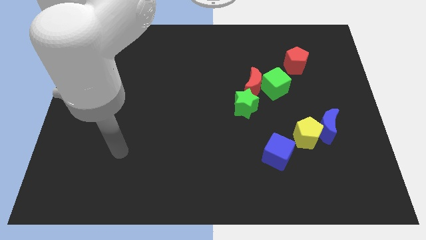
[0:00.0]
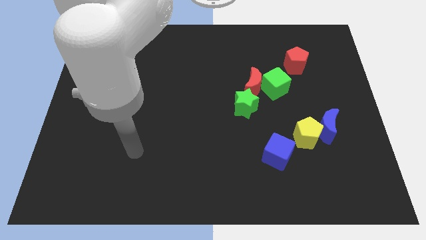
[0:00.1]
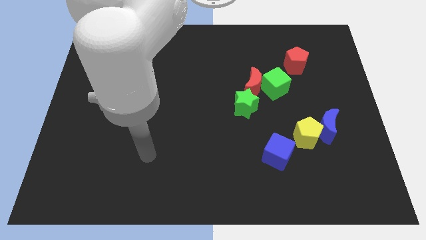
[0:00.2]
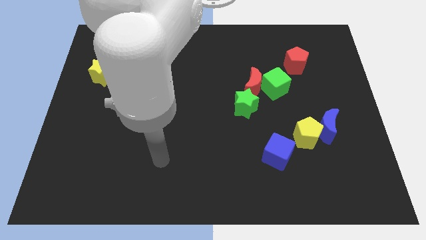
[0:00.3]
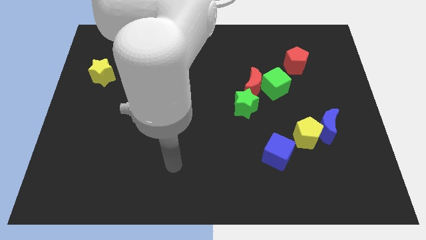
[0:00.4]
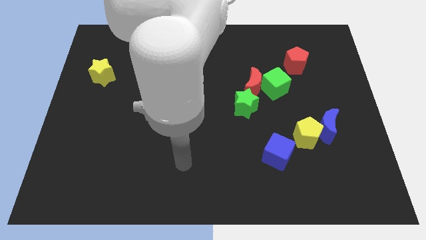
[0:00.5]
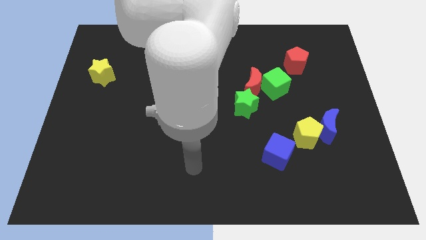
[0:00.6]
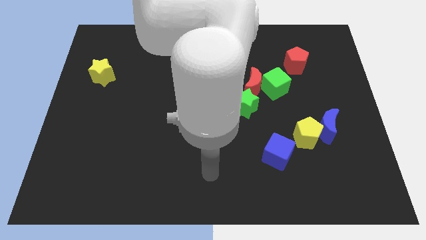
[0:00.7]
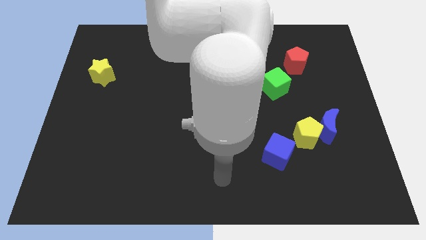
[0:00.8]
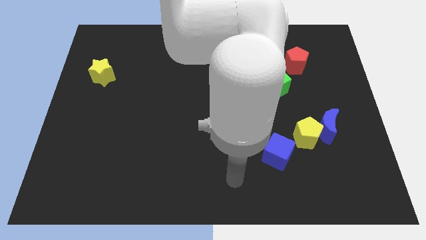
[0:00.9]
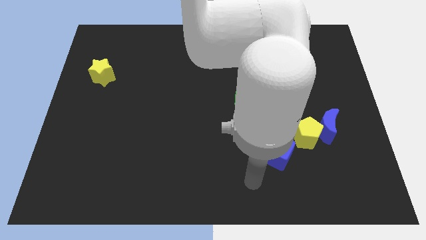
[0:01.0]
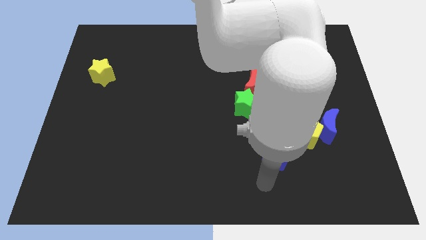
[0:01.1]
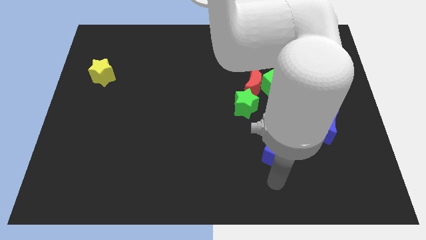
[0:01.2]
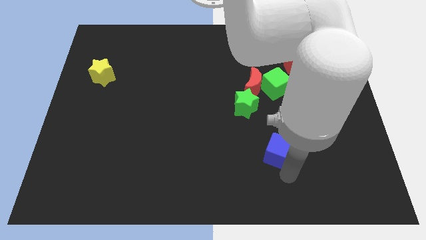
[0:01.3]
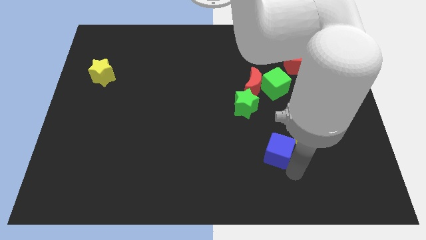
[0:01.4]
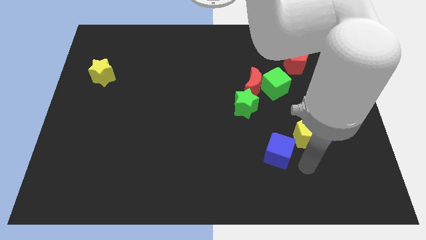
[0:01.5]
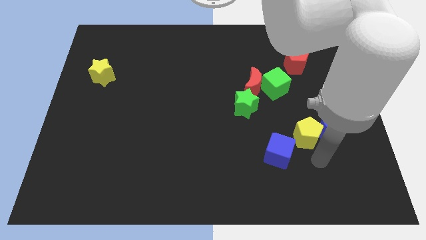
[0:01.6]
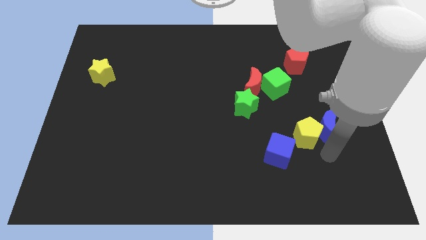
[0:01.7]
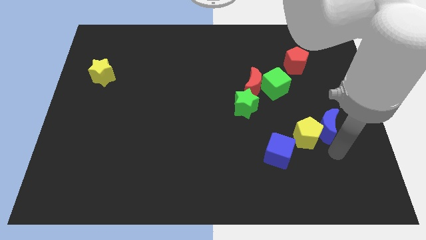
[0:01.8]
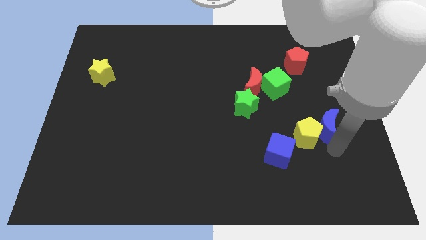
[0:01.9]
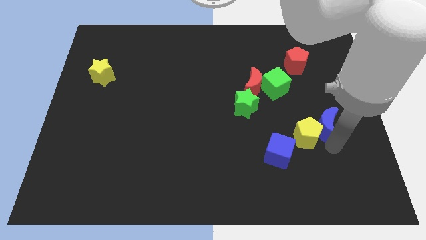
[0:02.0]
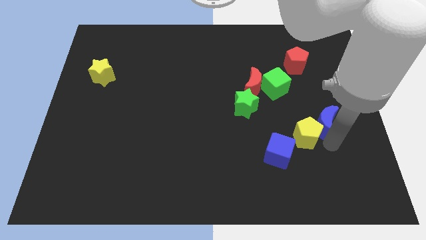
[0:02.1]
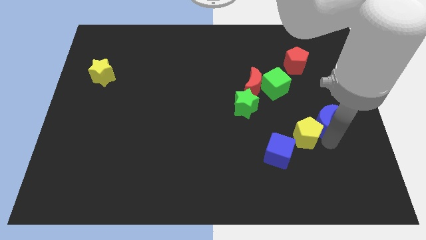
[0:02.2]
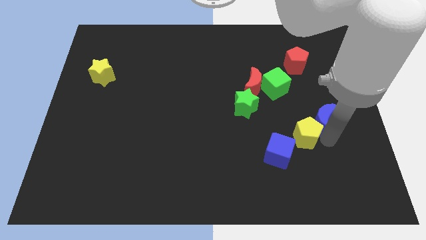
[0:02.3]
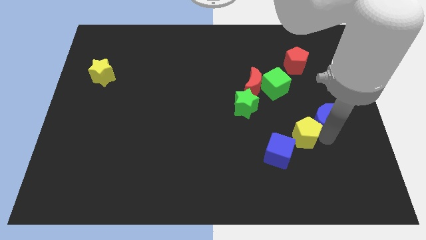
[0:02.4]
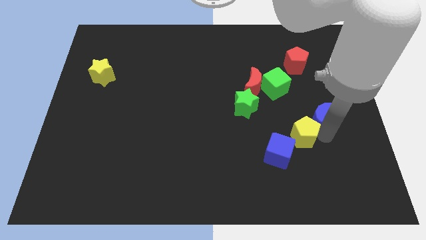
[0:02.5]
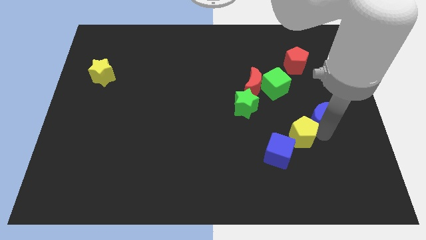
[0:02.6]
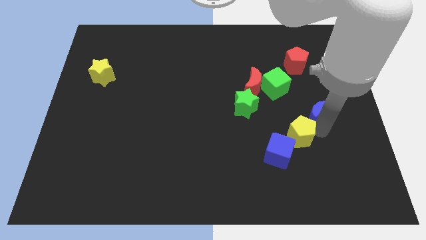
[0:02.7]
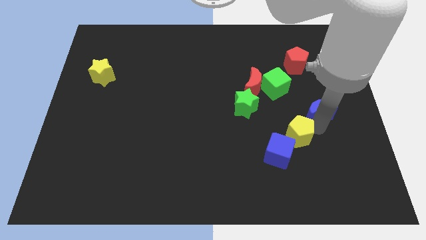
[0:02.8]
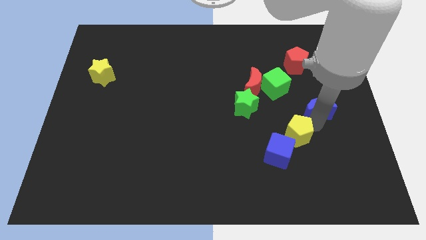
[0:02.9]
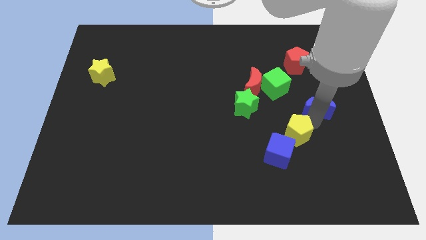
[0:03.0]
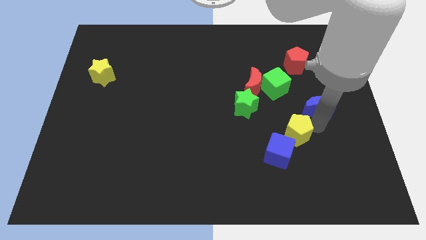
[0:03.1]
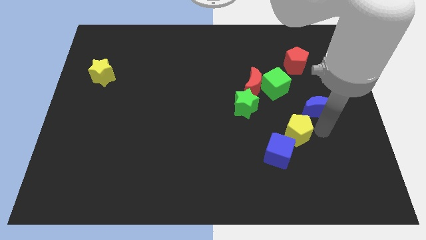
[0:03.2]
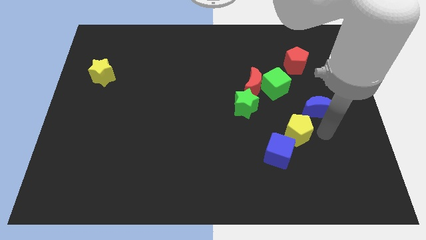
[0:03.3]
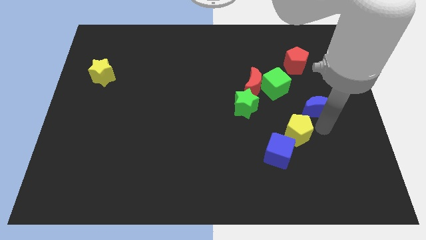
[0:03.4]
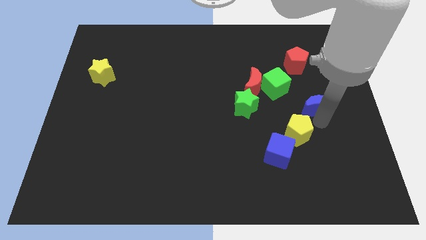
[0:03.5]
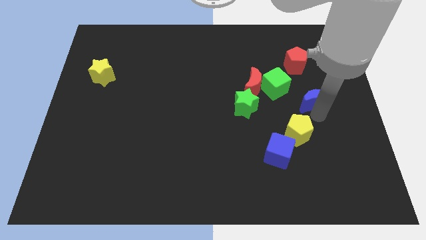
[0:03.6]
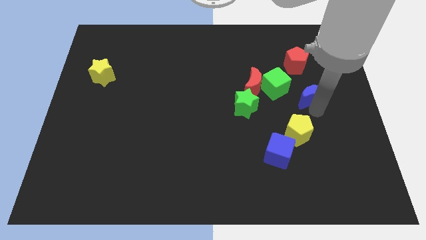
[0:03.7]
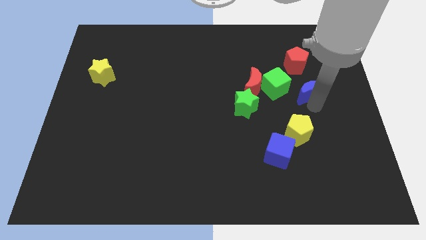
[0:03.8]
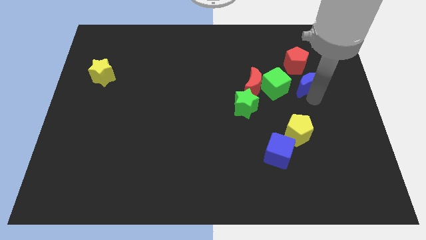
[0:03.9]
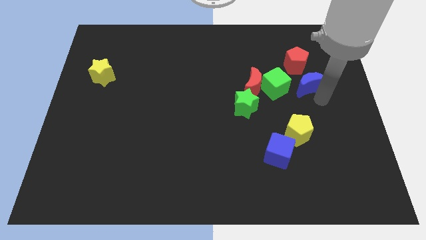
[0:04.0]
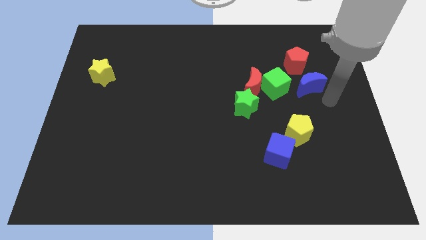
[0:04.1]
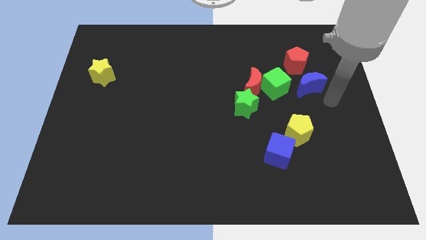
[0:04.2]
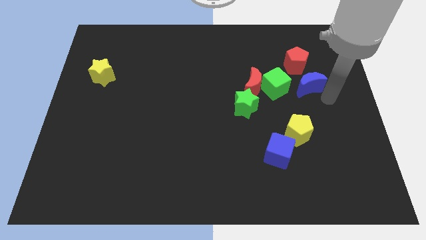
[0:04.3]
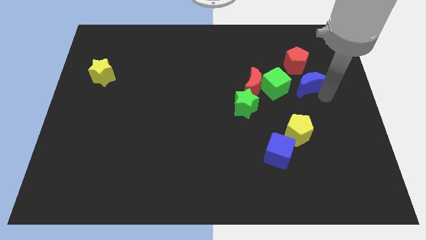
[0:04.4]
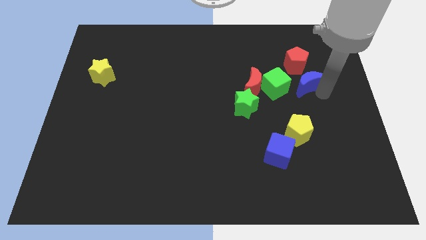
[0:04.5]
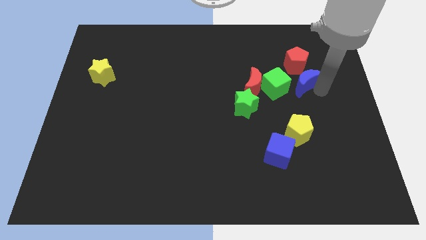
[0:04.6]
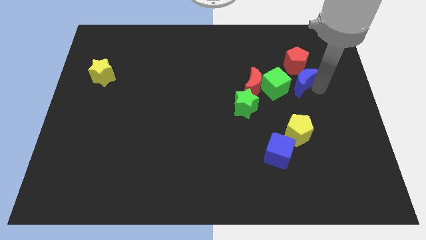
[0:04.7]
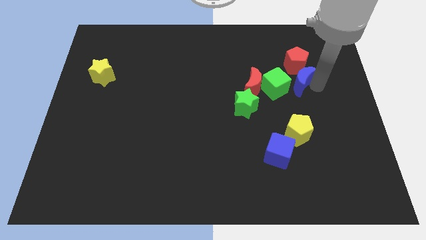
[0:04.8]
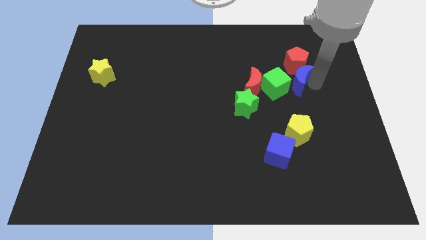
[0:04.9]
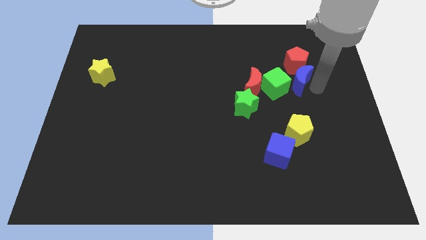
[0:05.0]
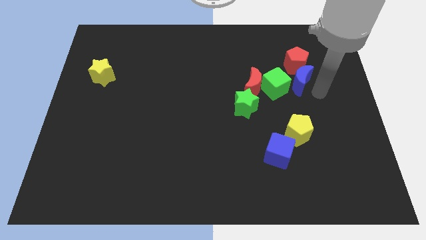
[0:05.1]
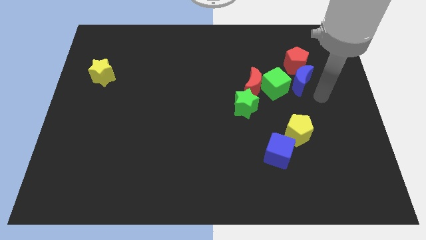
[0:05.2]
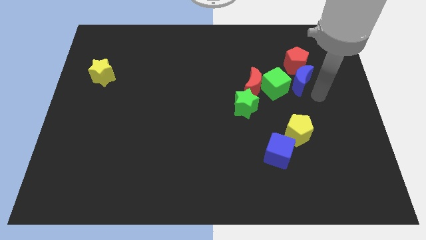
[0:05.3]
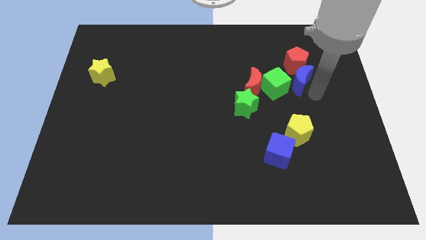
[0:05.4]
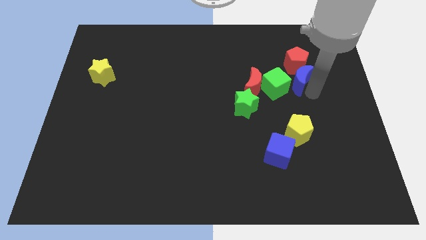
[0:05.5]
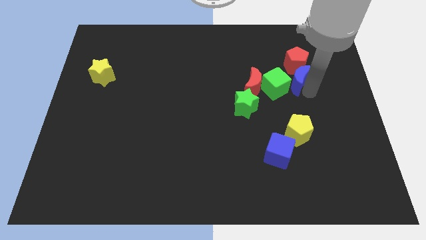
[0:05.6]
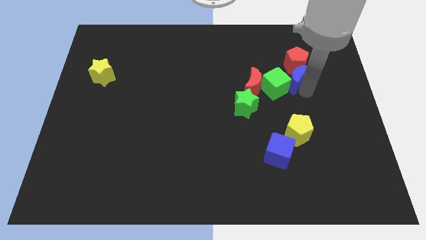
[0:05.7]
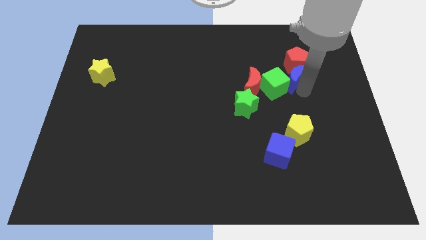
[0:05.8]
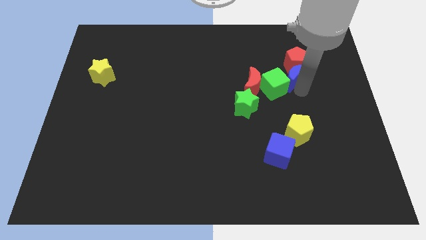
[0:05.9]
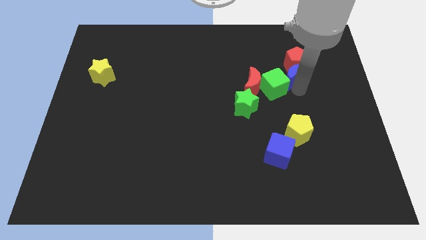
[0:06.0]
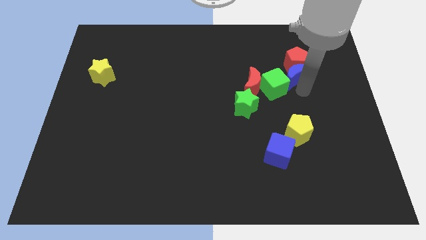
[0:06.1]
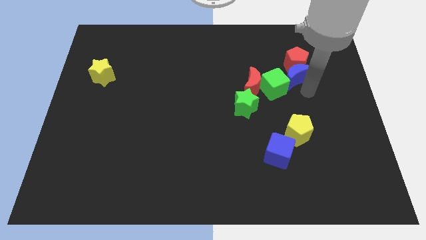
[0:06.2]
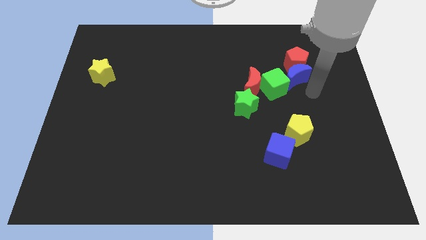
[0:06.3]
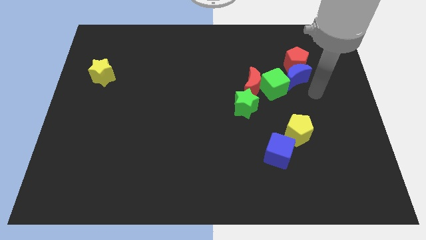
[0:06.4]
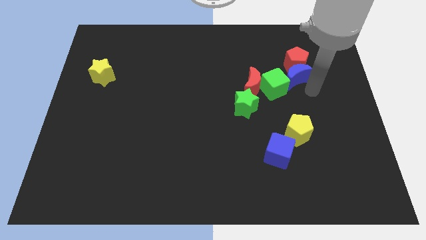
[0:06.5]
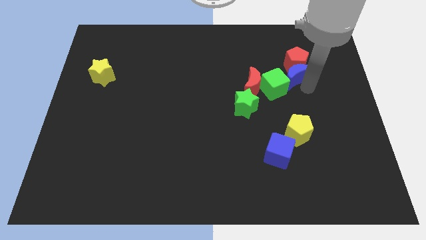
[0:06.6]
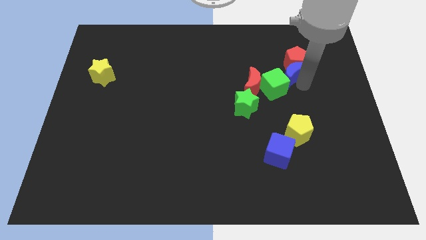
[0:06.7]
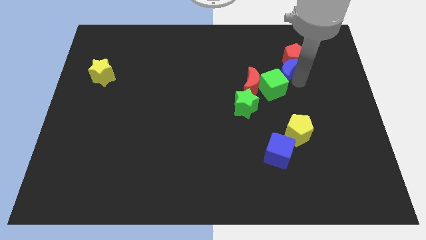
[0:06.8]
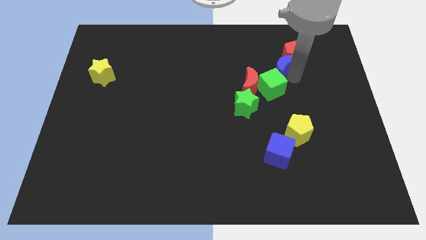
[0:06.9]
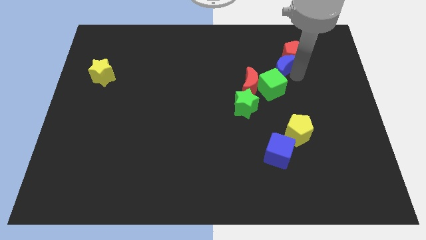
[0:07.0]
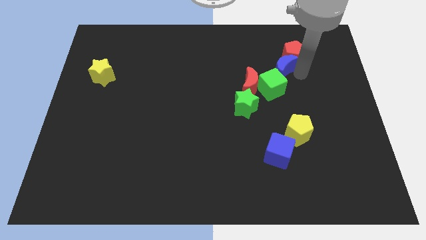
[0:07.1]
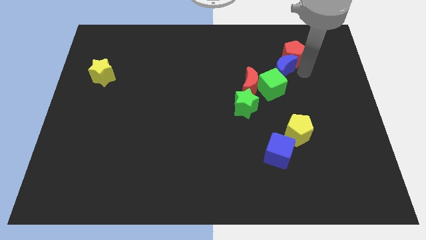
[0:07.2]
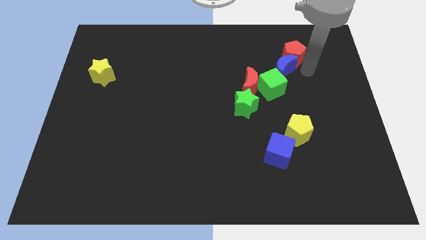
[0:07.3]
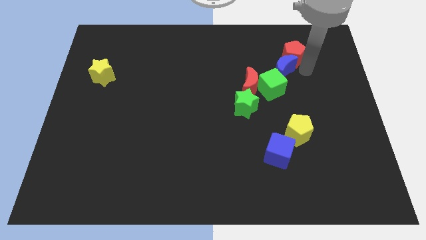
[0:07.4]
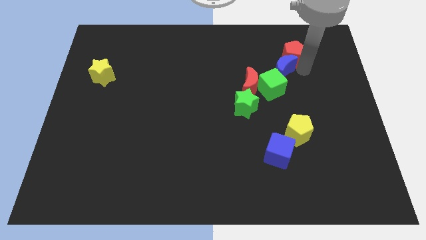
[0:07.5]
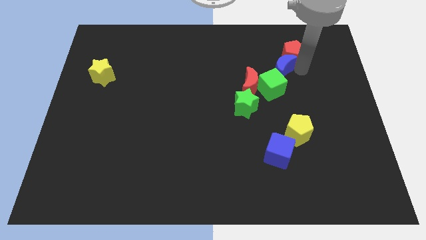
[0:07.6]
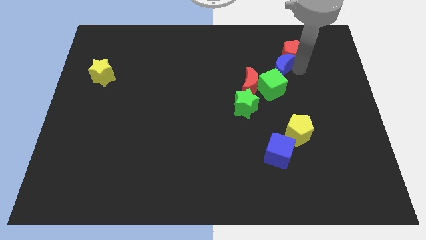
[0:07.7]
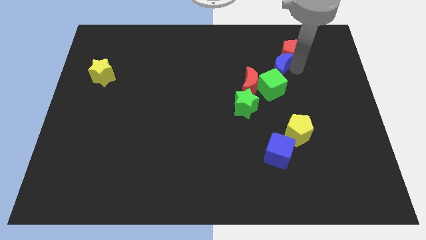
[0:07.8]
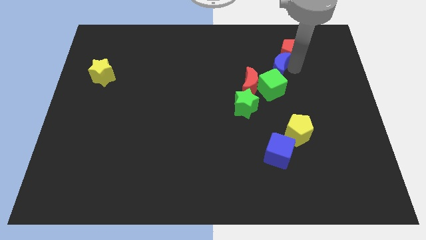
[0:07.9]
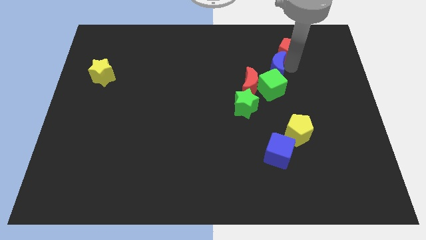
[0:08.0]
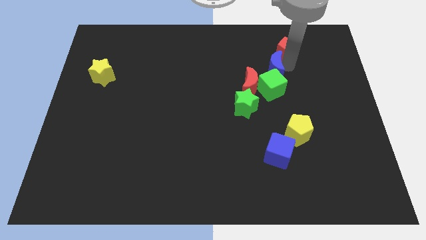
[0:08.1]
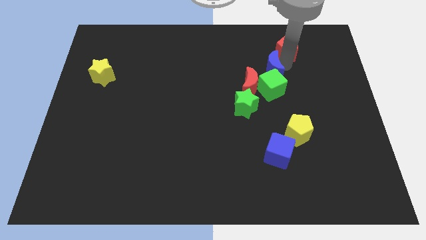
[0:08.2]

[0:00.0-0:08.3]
push the blue moon diagonally up and to the left of the green cube
